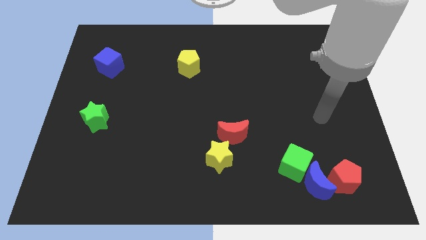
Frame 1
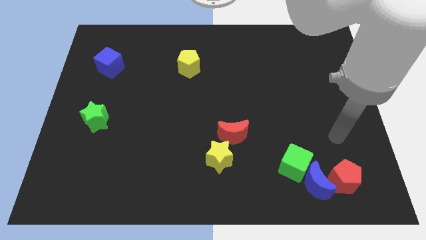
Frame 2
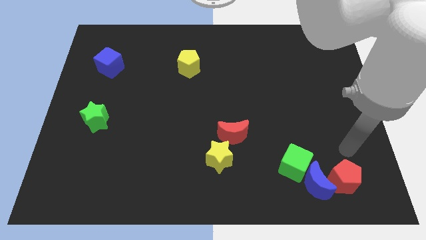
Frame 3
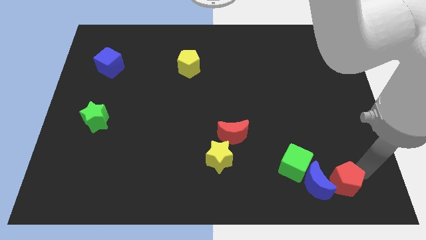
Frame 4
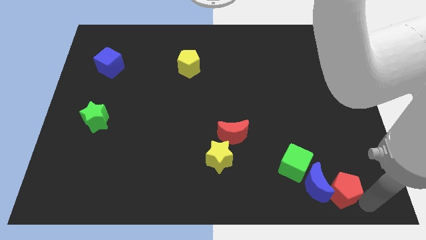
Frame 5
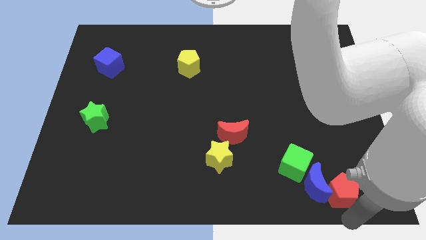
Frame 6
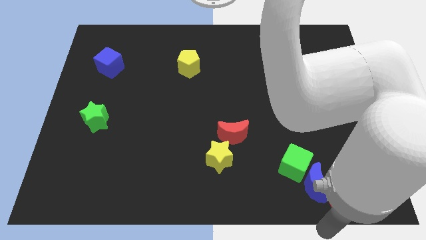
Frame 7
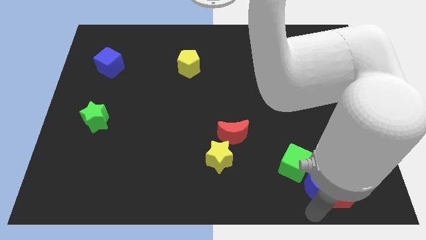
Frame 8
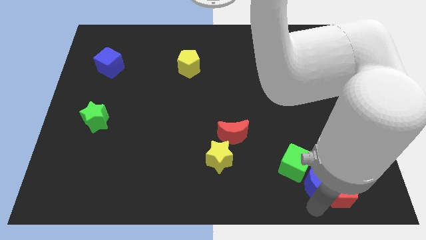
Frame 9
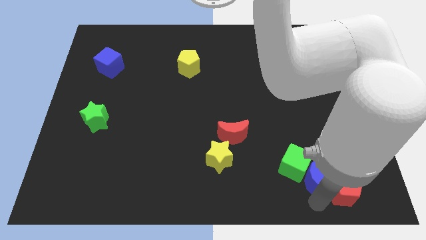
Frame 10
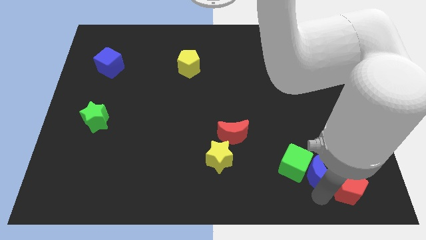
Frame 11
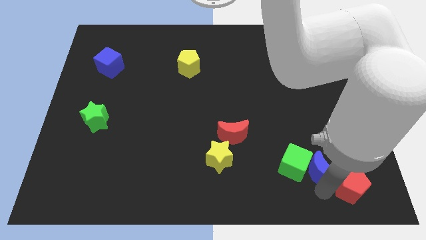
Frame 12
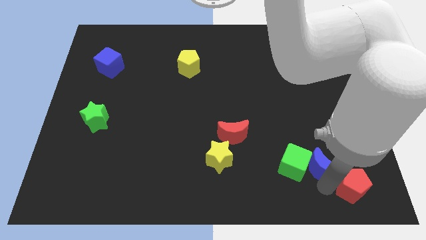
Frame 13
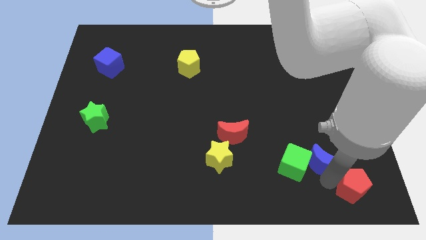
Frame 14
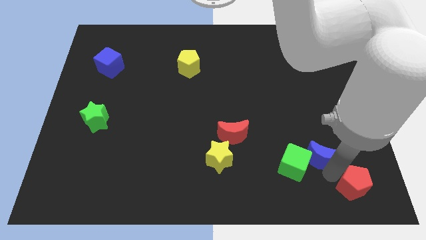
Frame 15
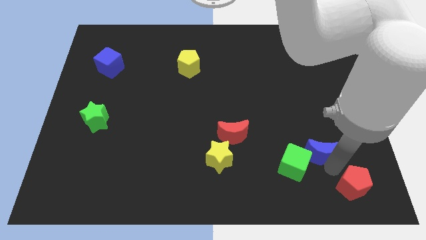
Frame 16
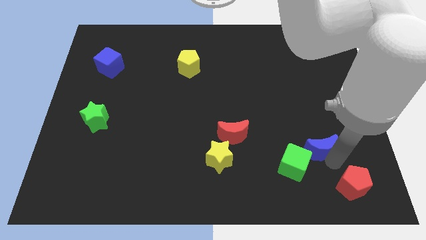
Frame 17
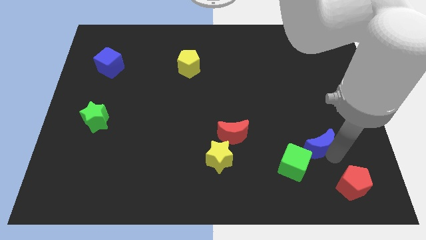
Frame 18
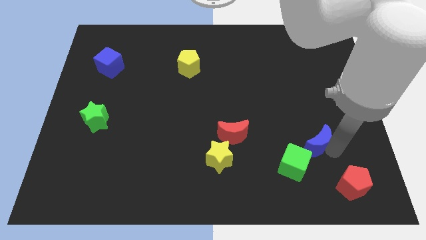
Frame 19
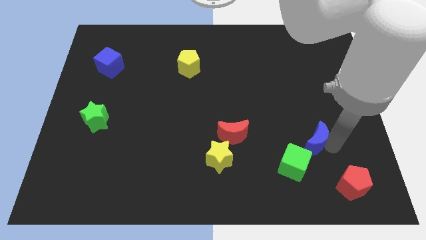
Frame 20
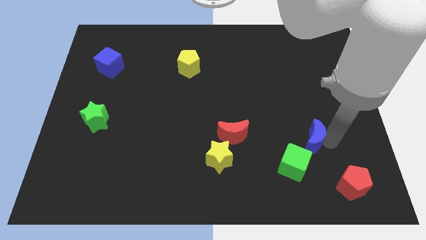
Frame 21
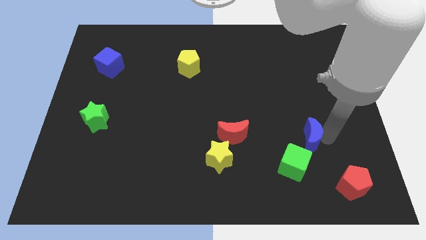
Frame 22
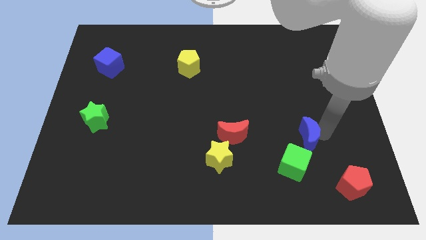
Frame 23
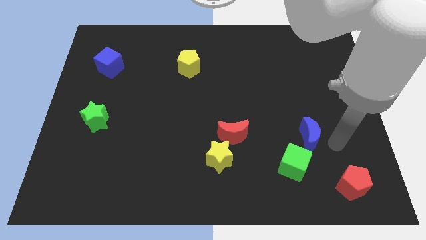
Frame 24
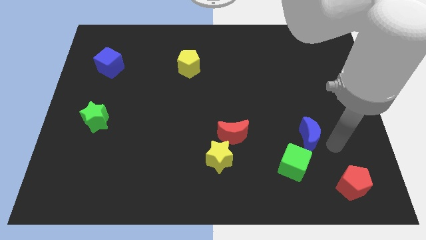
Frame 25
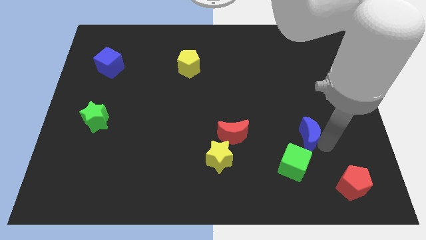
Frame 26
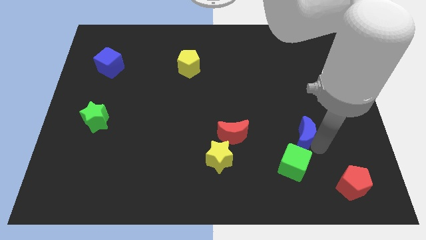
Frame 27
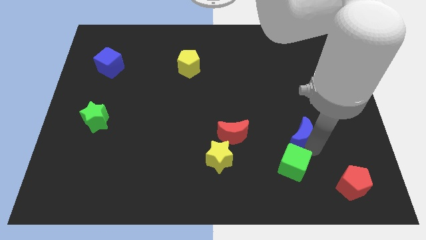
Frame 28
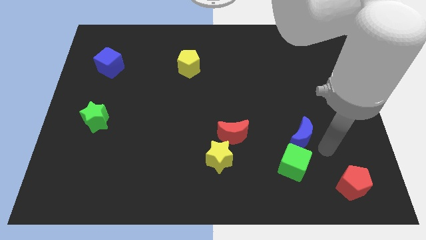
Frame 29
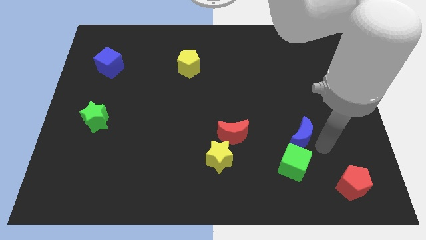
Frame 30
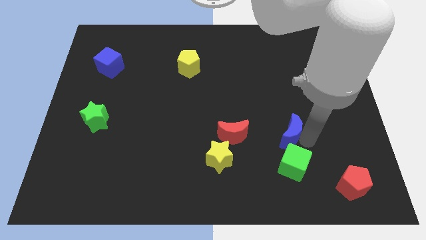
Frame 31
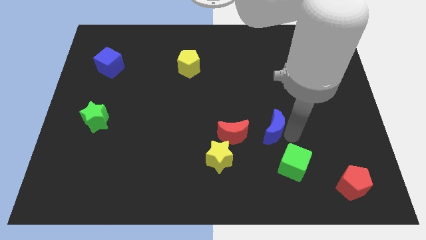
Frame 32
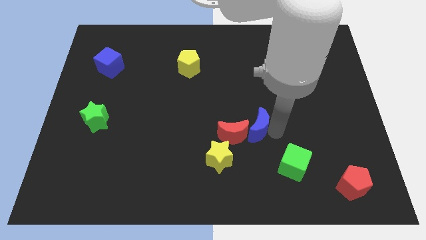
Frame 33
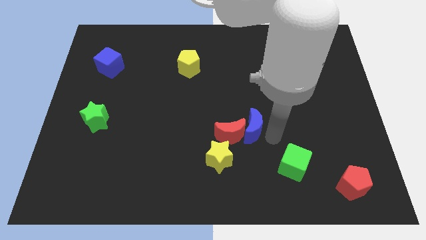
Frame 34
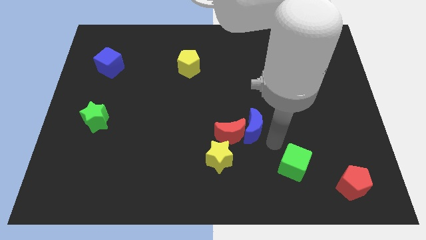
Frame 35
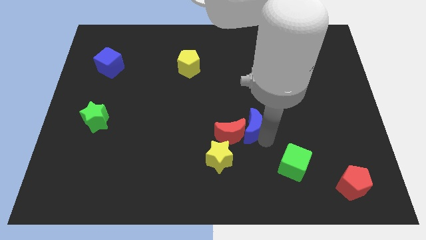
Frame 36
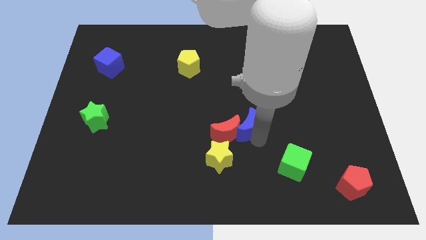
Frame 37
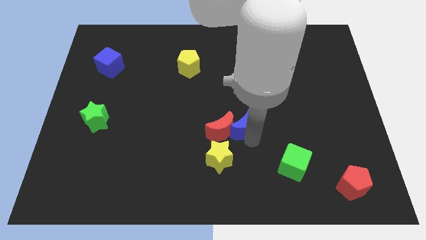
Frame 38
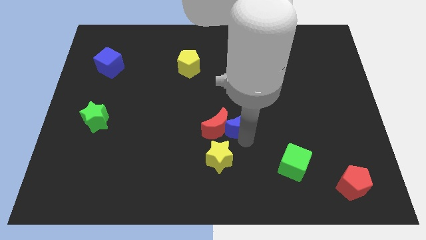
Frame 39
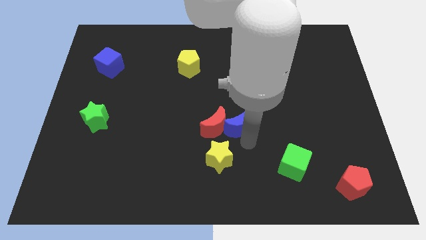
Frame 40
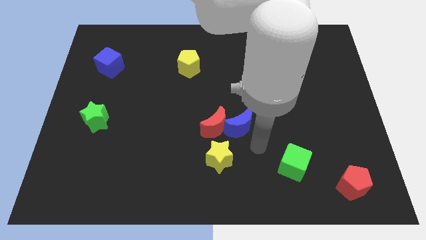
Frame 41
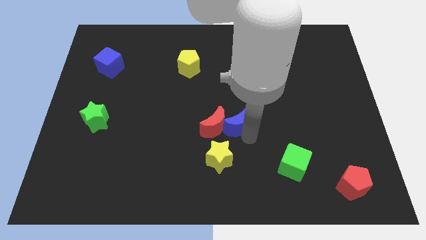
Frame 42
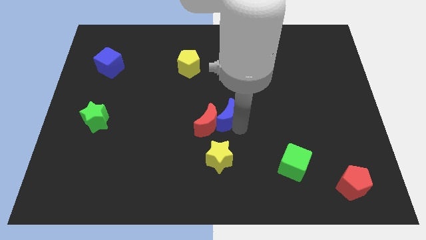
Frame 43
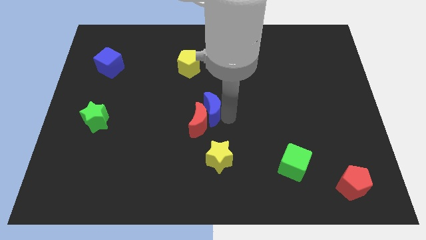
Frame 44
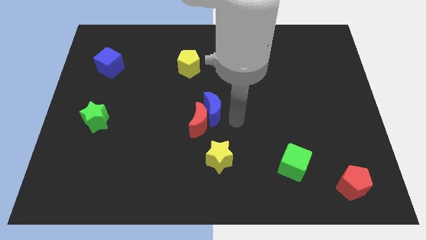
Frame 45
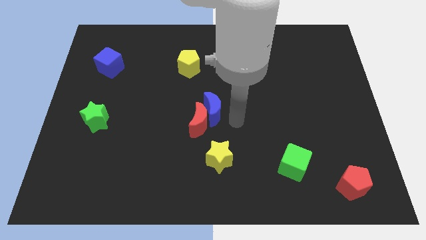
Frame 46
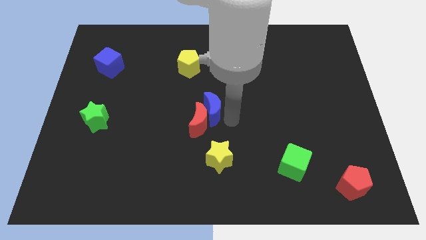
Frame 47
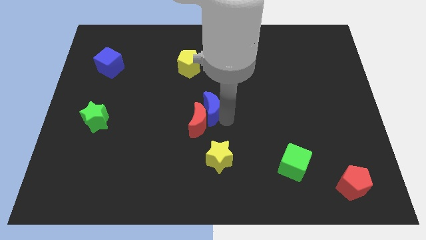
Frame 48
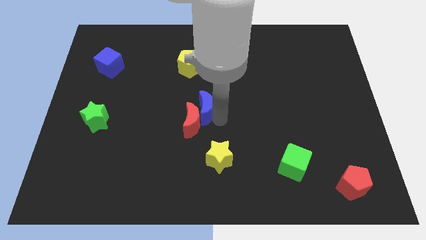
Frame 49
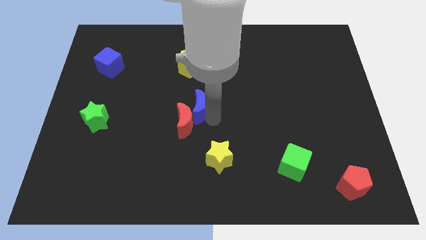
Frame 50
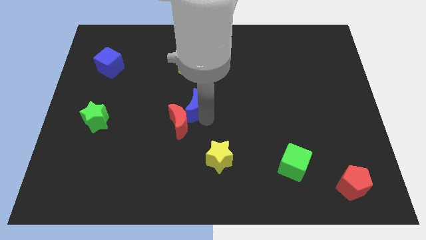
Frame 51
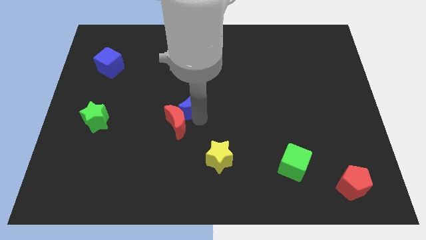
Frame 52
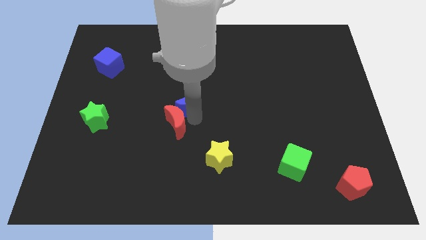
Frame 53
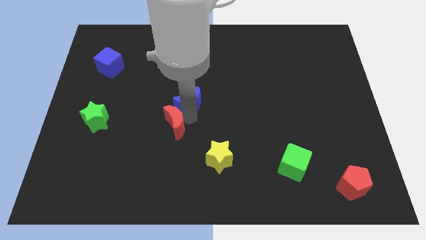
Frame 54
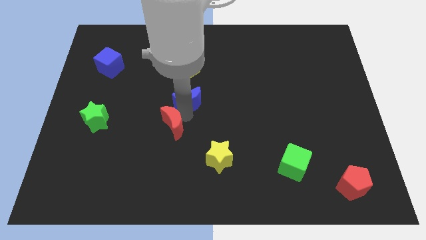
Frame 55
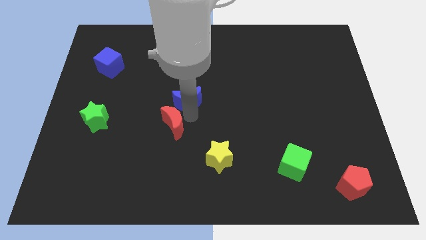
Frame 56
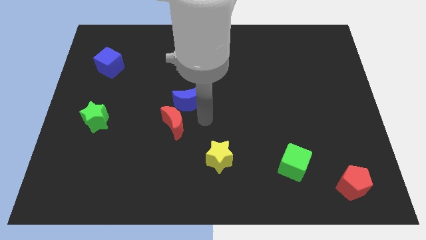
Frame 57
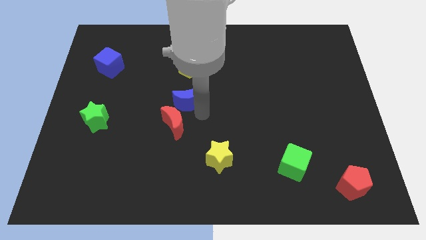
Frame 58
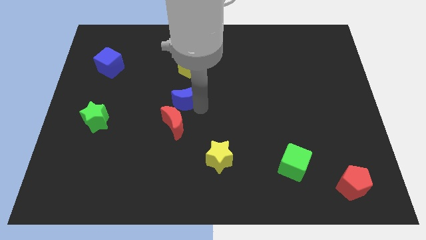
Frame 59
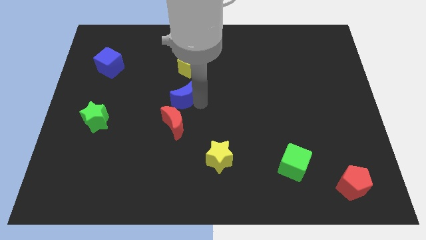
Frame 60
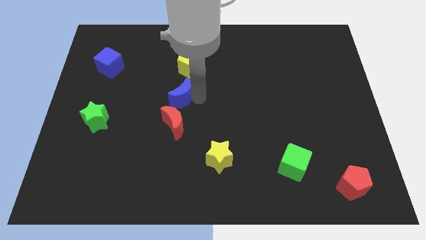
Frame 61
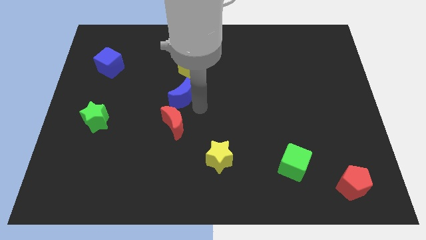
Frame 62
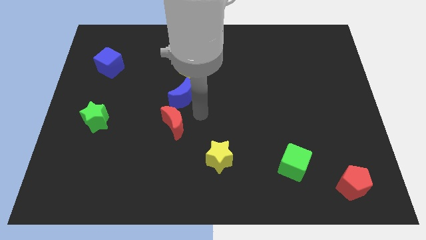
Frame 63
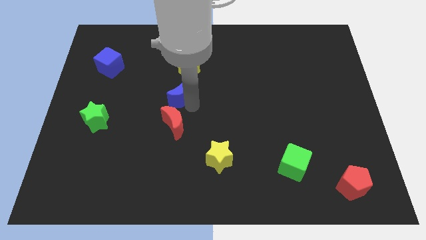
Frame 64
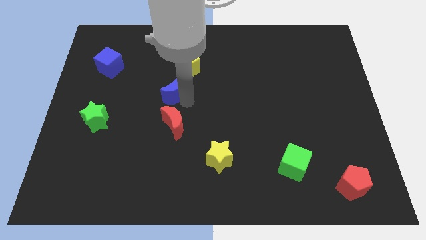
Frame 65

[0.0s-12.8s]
move the blue moon to the bottom left of the yellow pentagon
